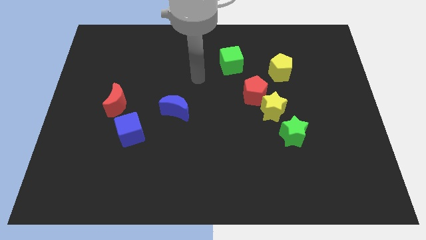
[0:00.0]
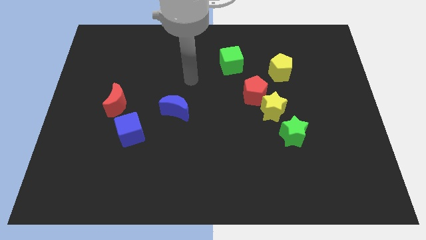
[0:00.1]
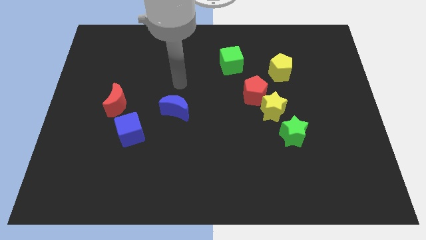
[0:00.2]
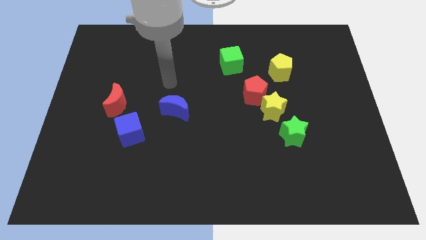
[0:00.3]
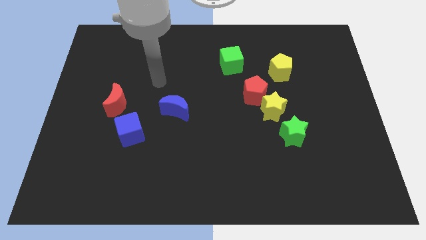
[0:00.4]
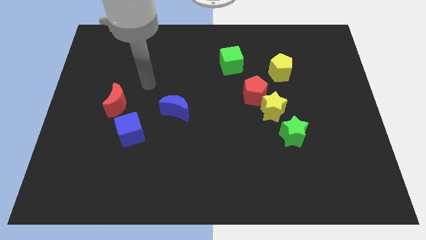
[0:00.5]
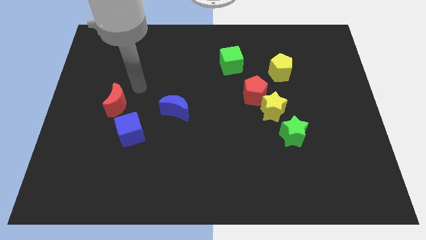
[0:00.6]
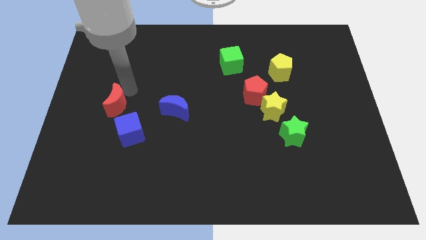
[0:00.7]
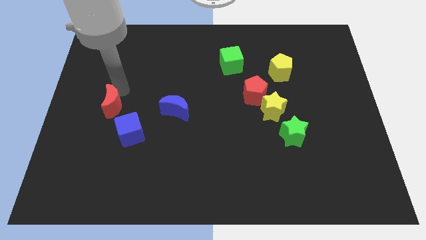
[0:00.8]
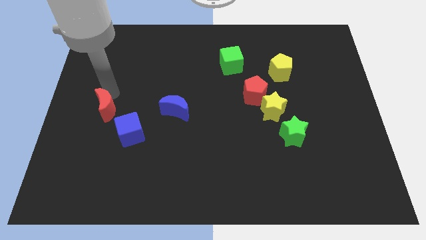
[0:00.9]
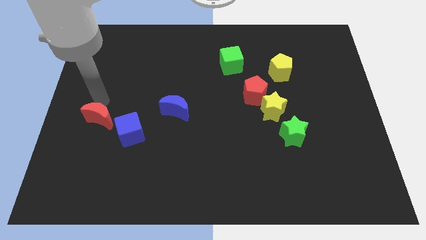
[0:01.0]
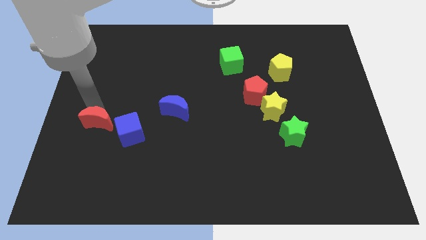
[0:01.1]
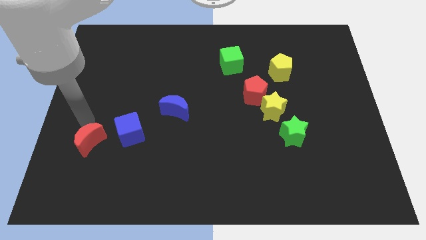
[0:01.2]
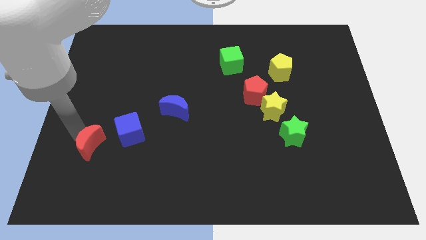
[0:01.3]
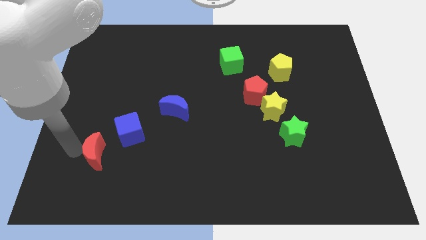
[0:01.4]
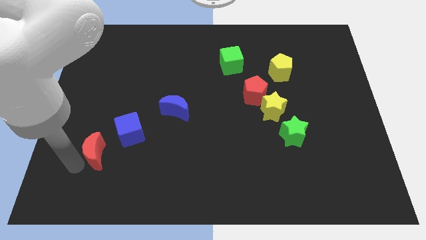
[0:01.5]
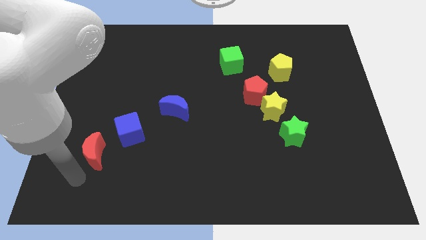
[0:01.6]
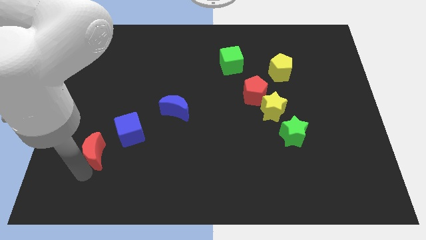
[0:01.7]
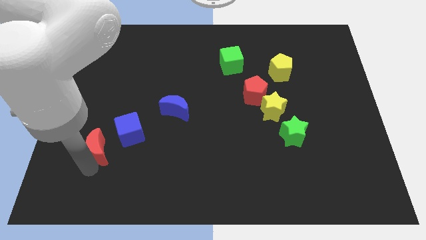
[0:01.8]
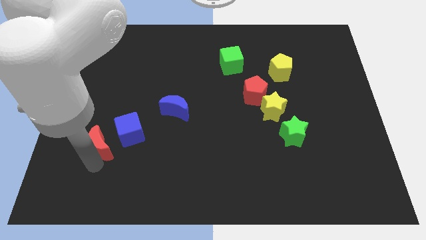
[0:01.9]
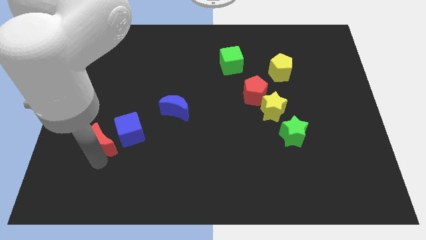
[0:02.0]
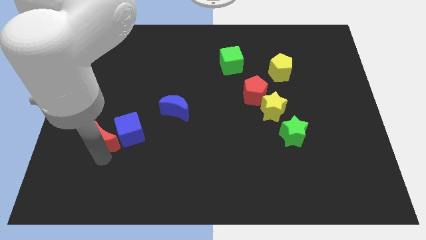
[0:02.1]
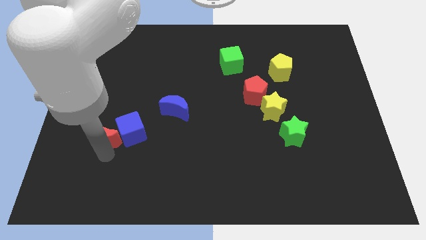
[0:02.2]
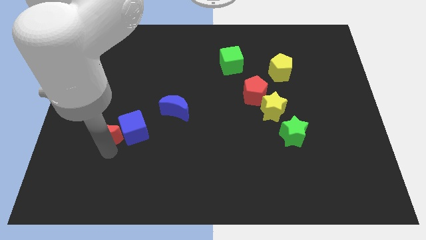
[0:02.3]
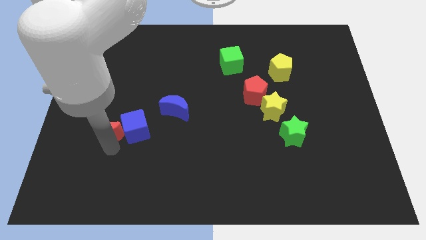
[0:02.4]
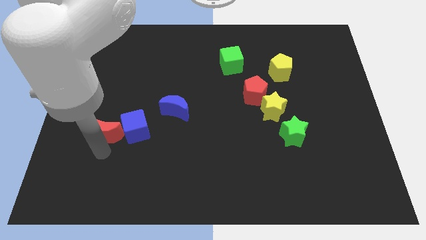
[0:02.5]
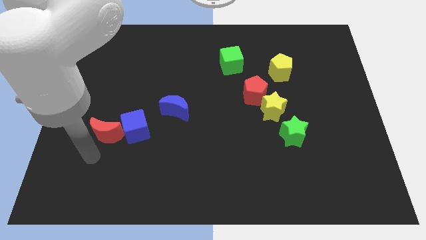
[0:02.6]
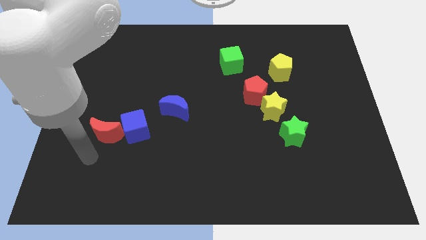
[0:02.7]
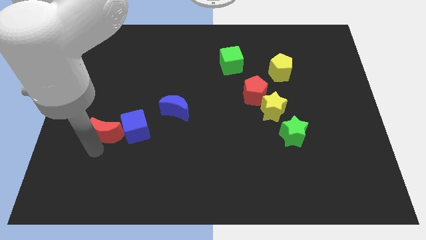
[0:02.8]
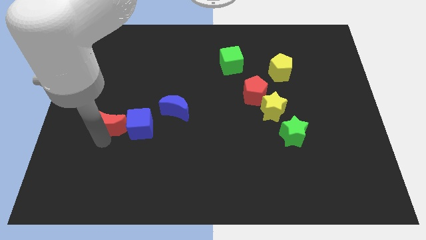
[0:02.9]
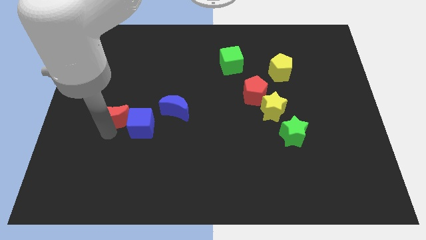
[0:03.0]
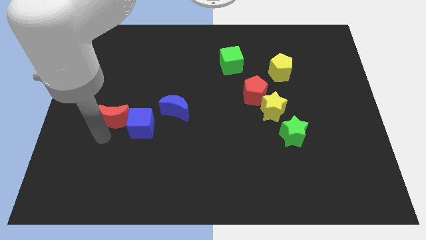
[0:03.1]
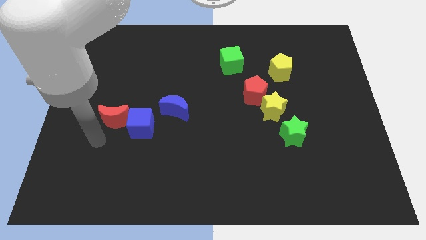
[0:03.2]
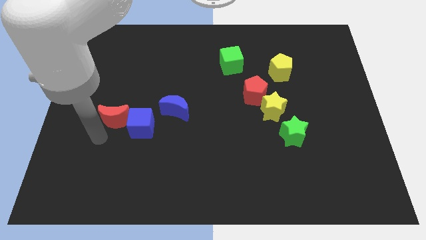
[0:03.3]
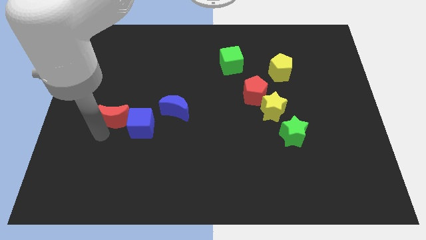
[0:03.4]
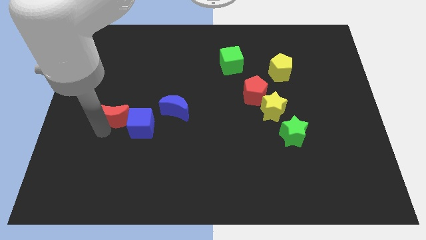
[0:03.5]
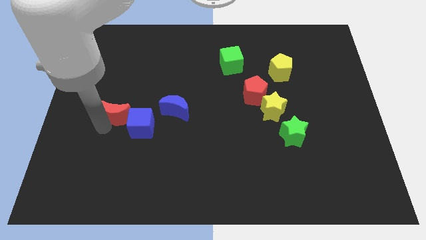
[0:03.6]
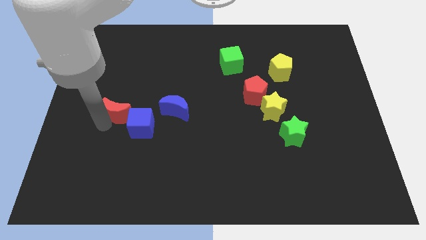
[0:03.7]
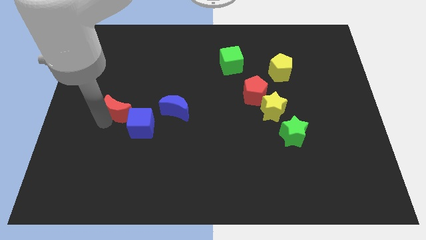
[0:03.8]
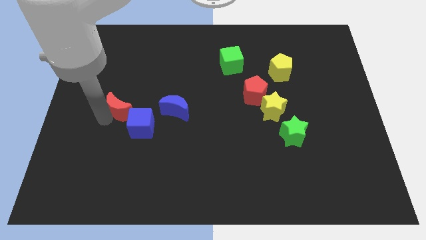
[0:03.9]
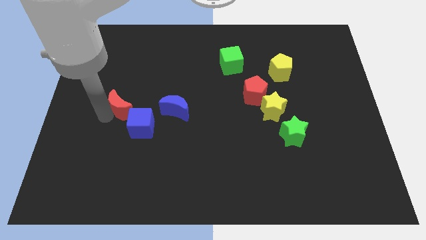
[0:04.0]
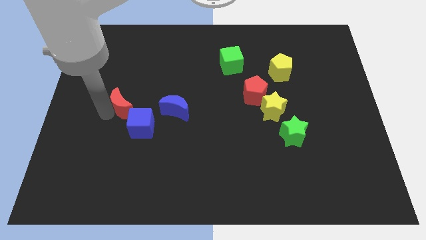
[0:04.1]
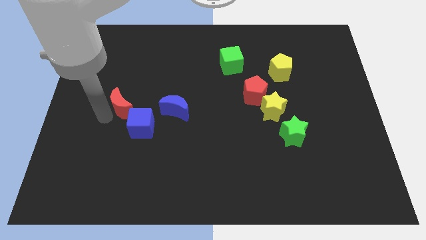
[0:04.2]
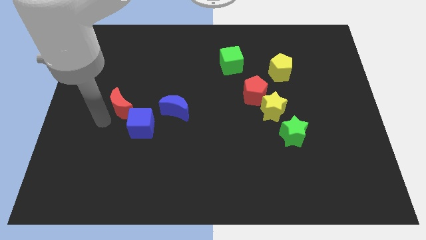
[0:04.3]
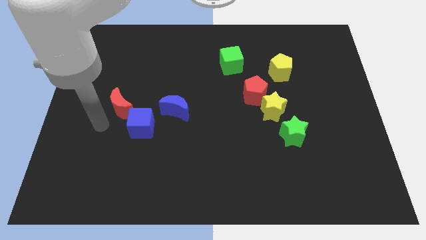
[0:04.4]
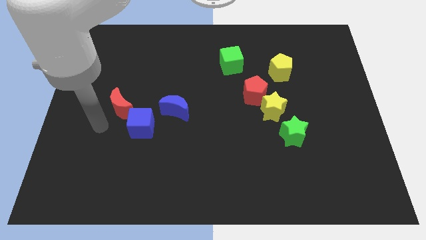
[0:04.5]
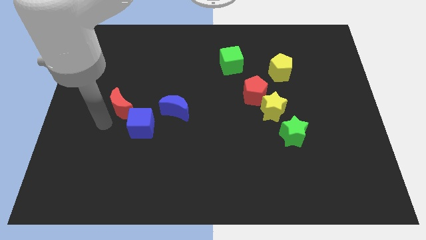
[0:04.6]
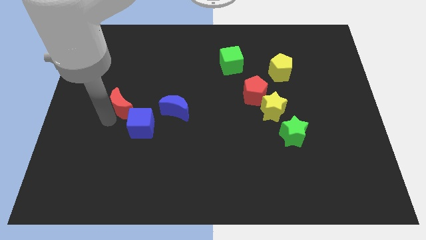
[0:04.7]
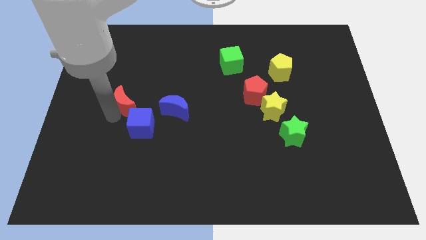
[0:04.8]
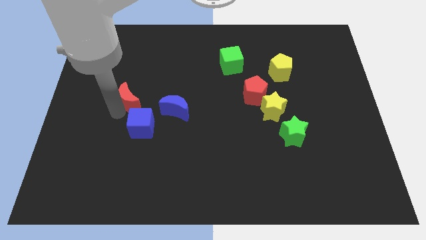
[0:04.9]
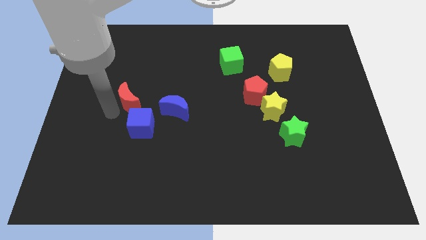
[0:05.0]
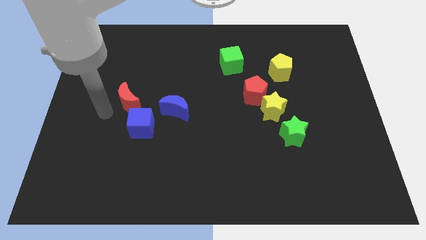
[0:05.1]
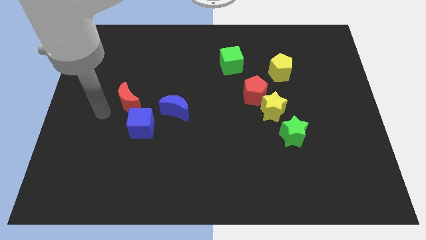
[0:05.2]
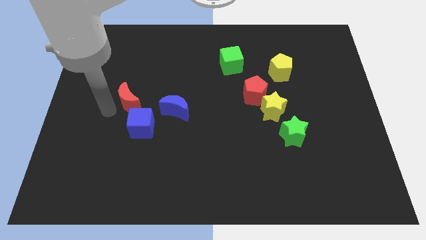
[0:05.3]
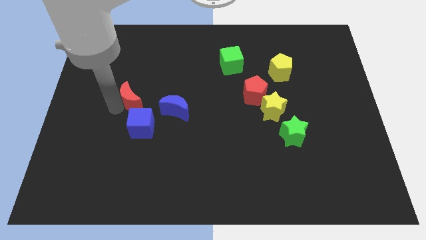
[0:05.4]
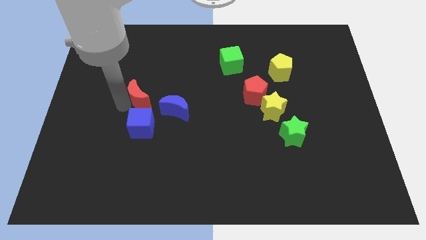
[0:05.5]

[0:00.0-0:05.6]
slide the red moon to the top left side of the blue moon

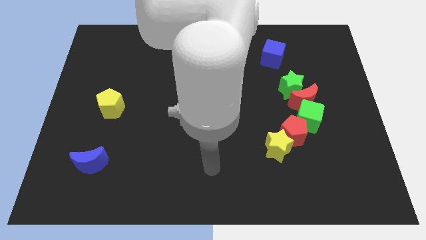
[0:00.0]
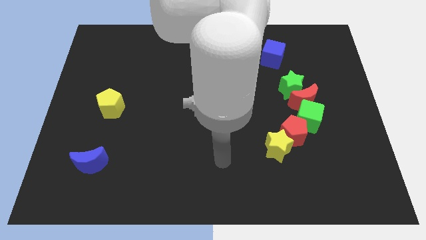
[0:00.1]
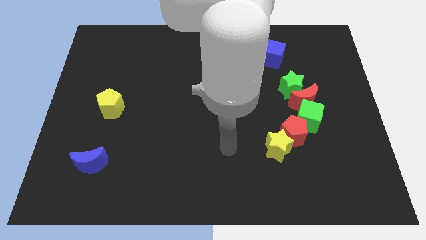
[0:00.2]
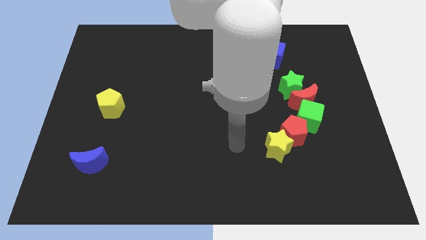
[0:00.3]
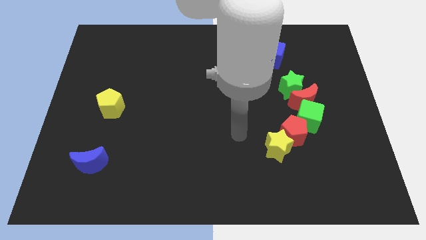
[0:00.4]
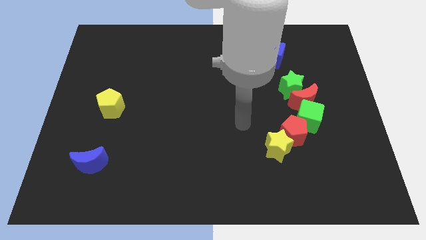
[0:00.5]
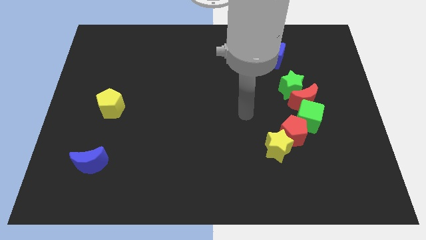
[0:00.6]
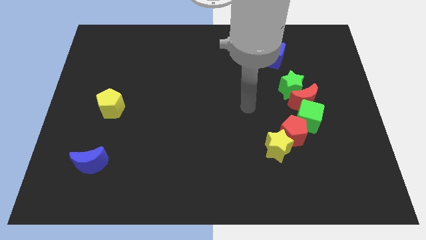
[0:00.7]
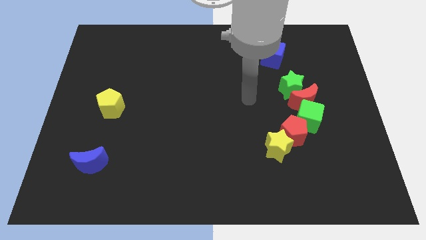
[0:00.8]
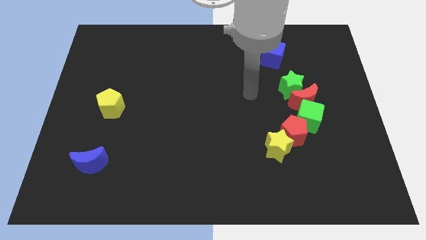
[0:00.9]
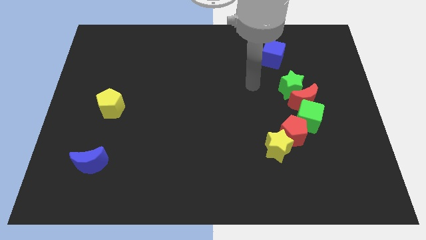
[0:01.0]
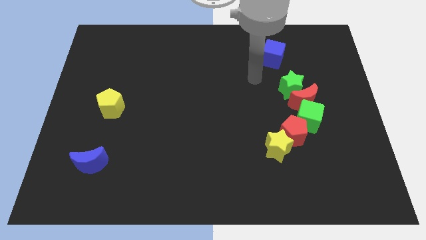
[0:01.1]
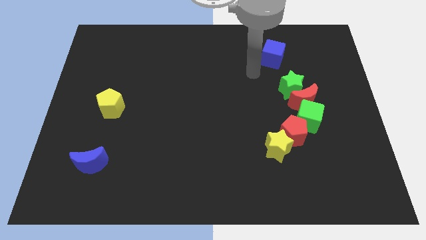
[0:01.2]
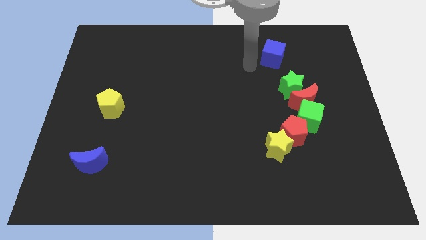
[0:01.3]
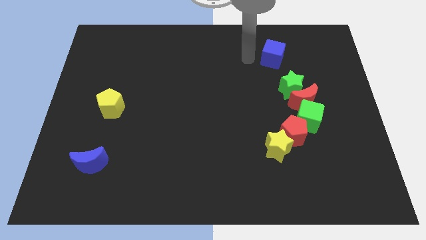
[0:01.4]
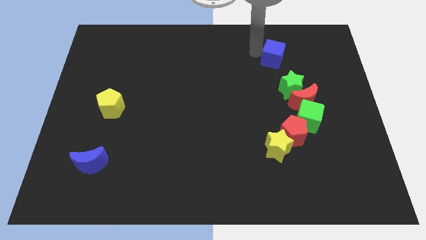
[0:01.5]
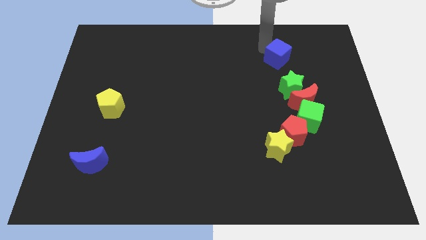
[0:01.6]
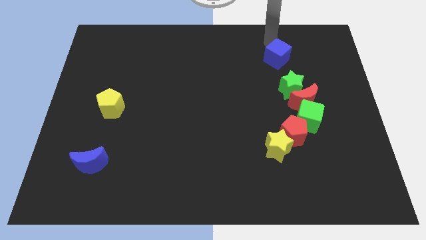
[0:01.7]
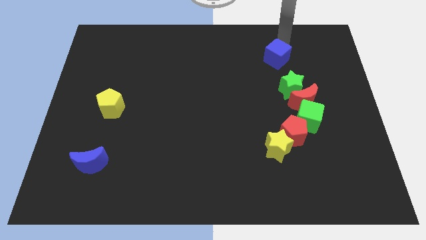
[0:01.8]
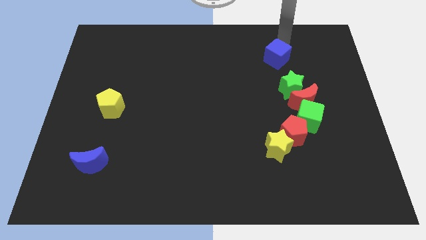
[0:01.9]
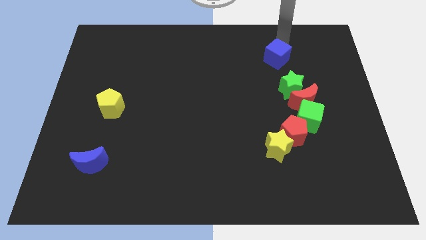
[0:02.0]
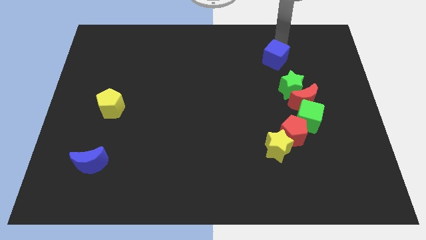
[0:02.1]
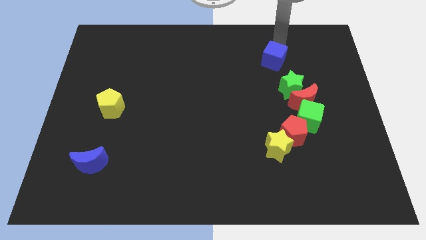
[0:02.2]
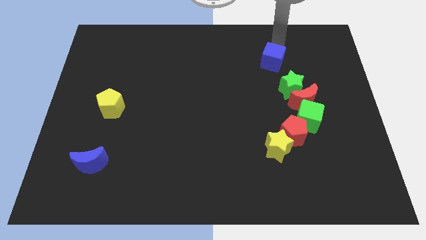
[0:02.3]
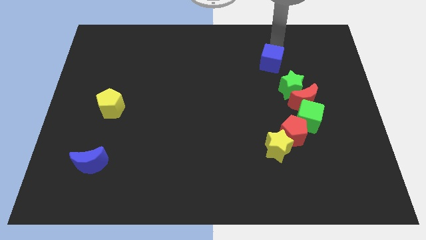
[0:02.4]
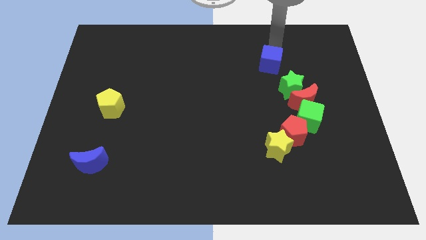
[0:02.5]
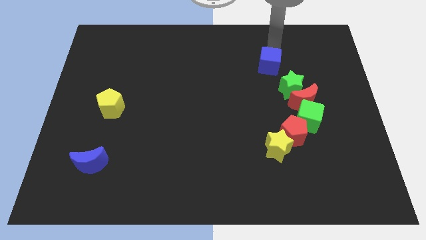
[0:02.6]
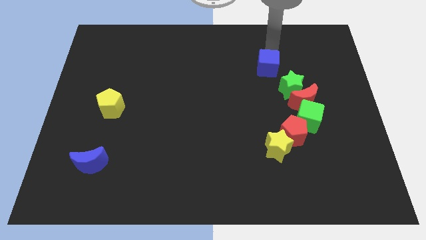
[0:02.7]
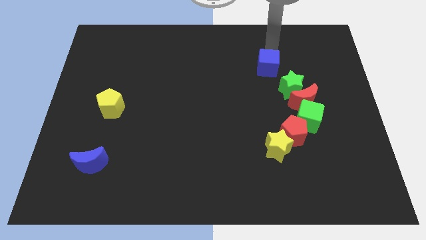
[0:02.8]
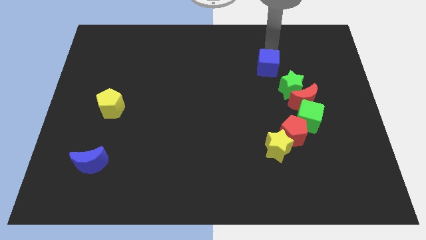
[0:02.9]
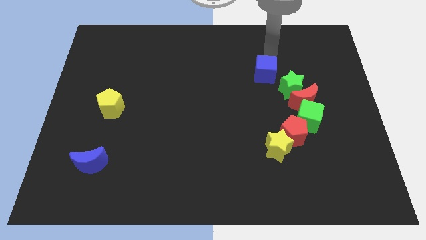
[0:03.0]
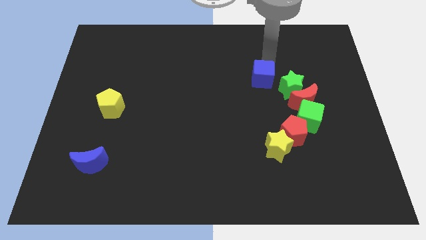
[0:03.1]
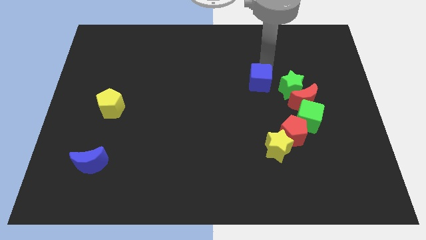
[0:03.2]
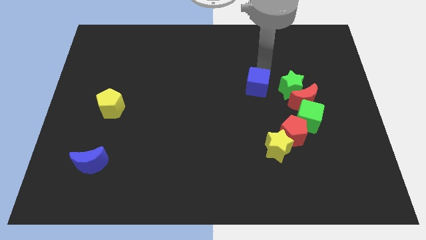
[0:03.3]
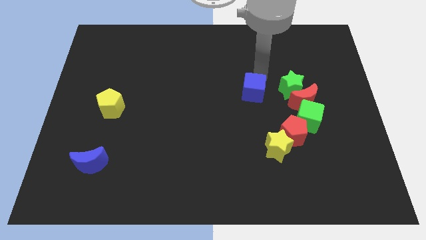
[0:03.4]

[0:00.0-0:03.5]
move the blue cube left of the red moon
